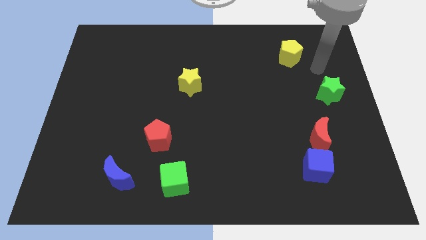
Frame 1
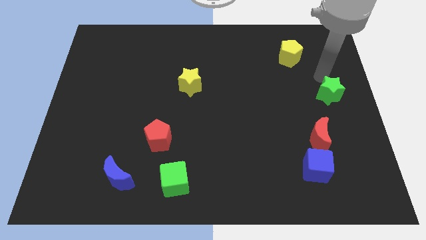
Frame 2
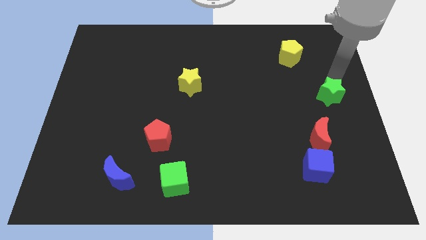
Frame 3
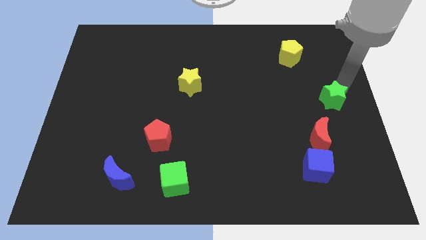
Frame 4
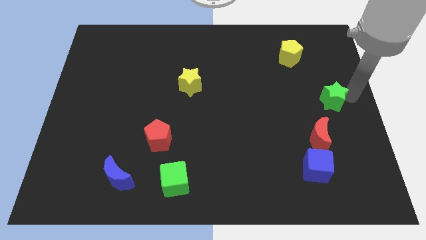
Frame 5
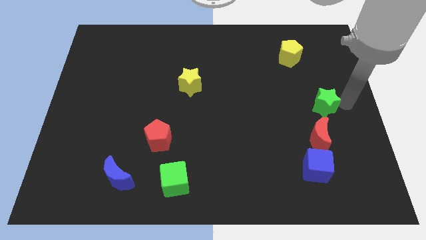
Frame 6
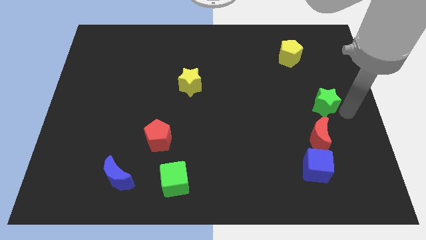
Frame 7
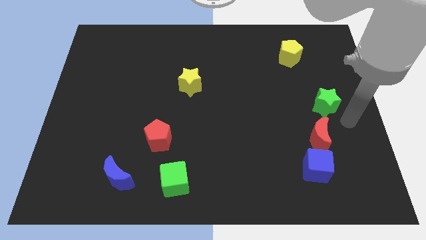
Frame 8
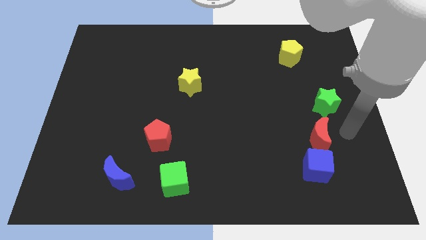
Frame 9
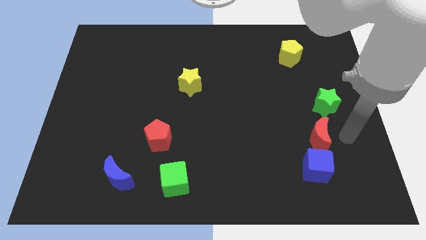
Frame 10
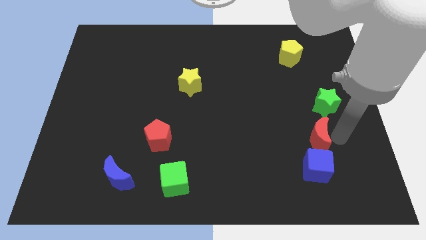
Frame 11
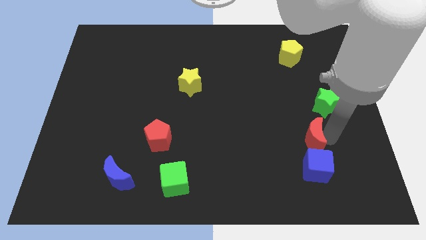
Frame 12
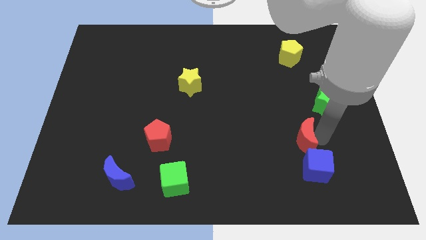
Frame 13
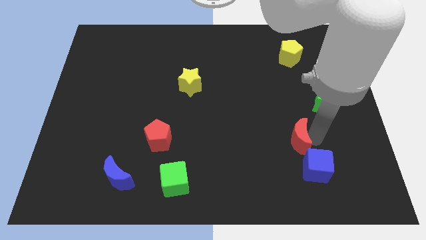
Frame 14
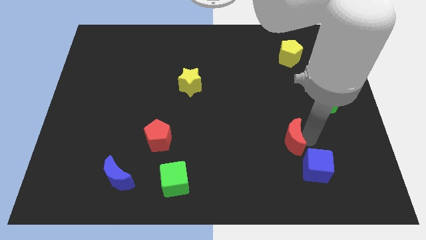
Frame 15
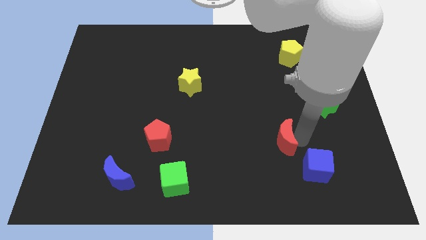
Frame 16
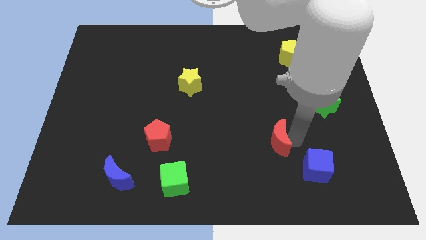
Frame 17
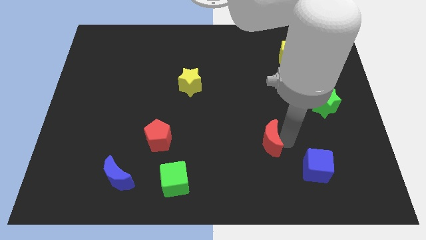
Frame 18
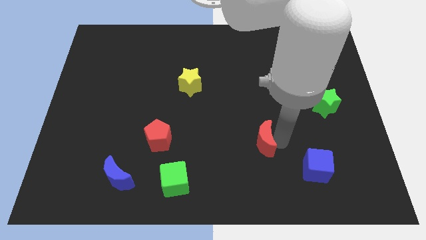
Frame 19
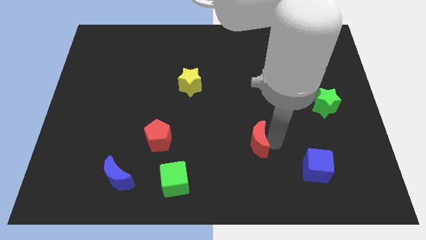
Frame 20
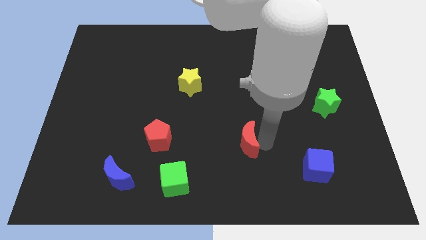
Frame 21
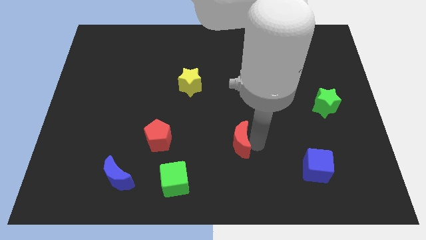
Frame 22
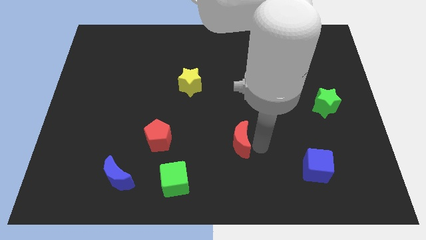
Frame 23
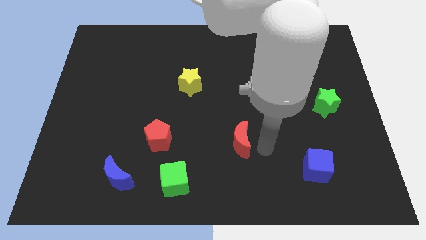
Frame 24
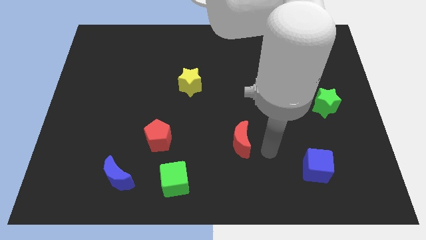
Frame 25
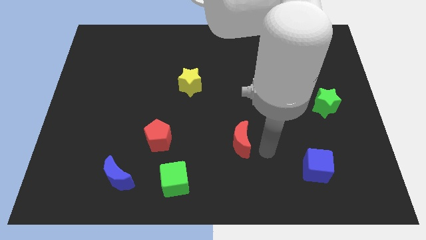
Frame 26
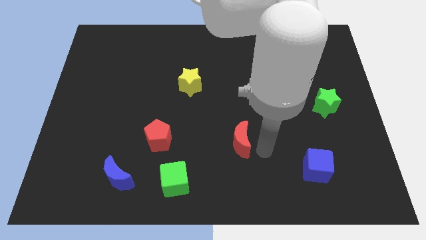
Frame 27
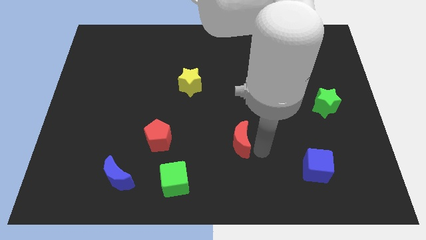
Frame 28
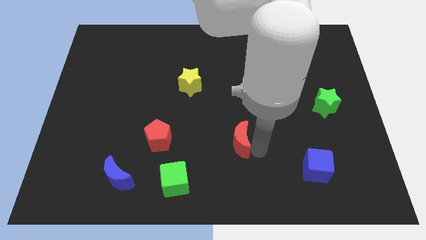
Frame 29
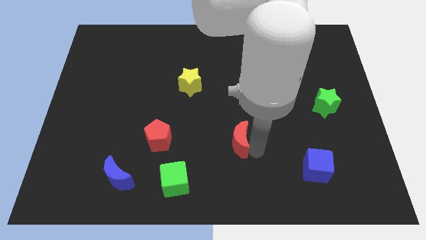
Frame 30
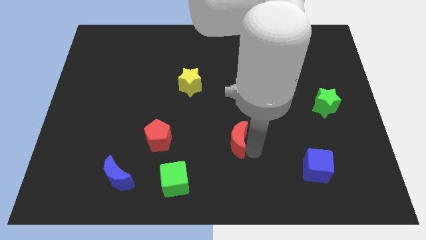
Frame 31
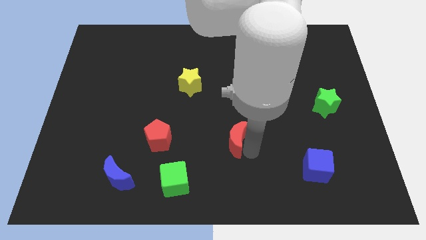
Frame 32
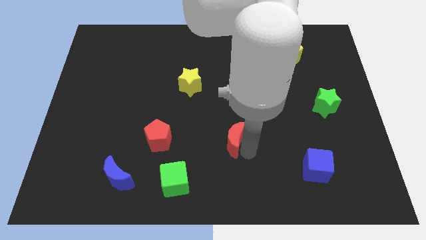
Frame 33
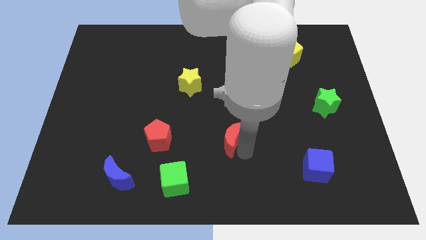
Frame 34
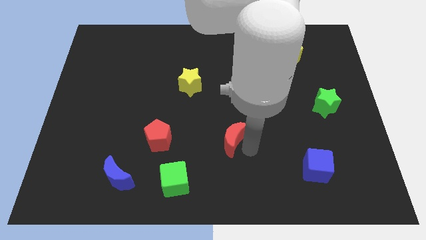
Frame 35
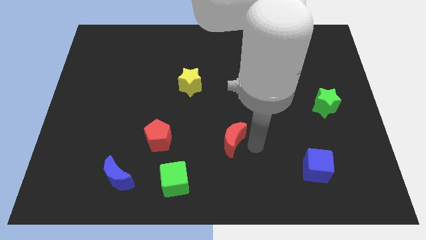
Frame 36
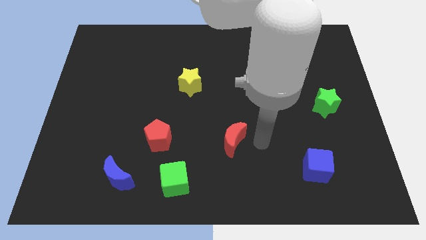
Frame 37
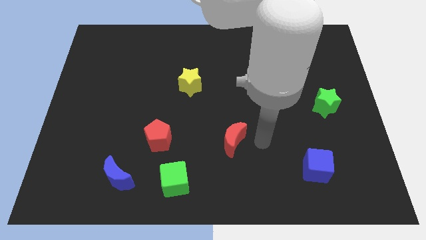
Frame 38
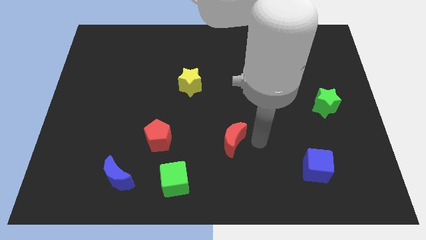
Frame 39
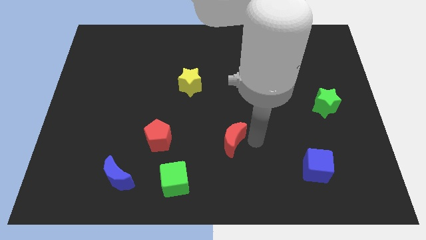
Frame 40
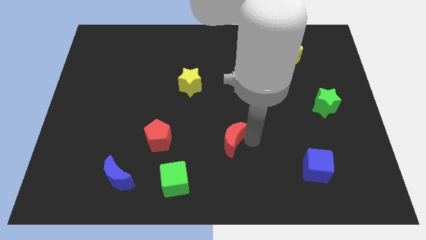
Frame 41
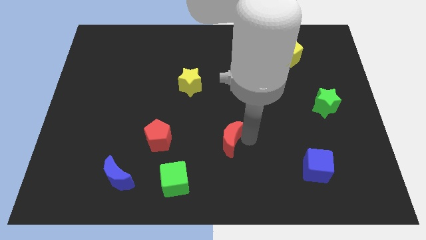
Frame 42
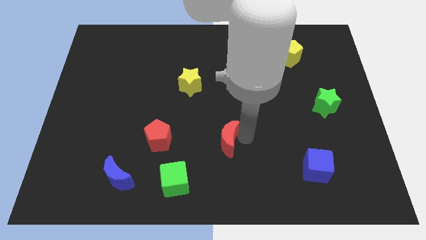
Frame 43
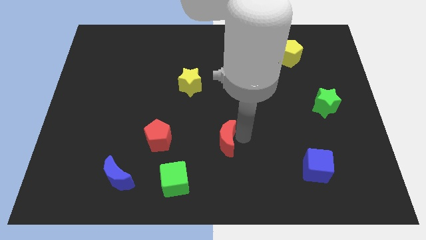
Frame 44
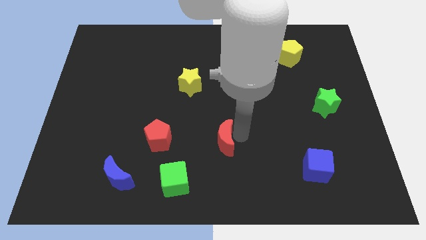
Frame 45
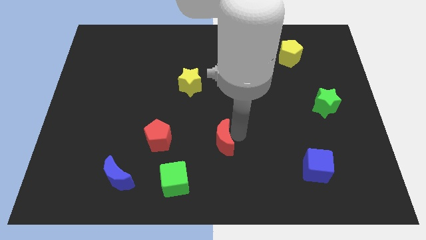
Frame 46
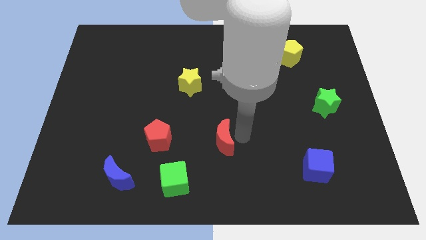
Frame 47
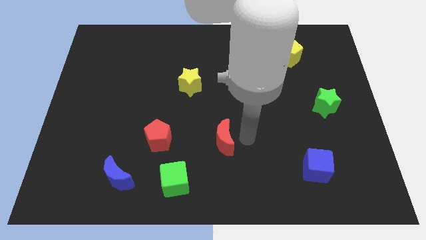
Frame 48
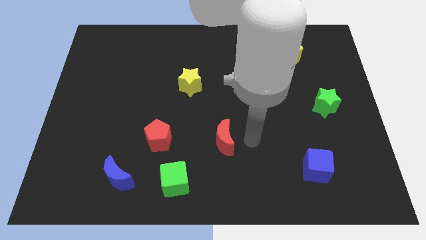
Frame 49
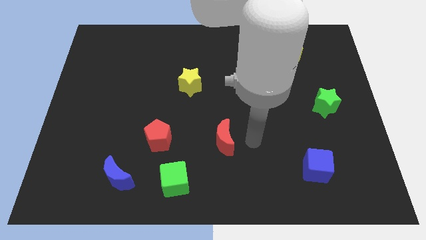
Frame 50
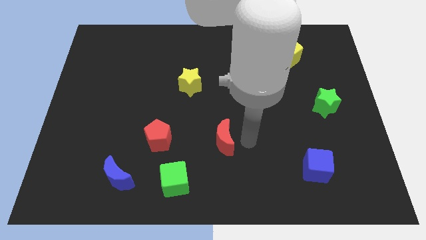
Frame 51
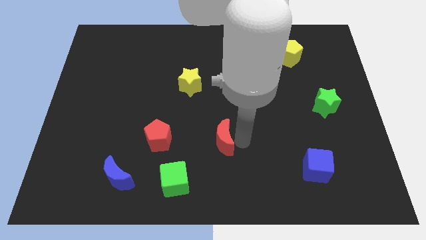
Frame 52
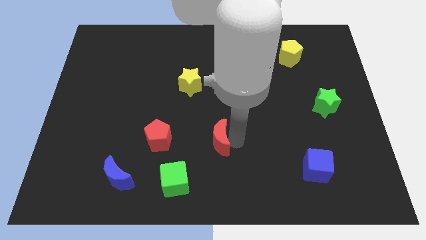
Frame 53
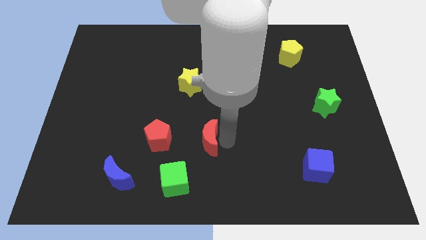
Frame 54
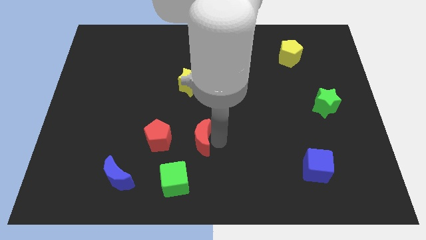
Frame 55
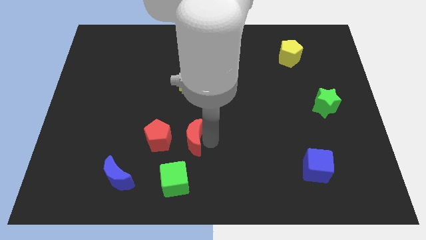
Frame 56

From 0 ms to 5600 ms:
move the red moon above the green cube

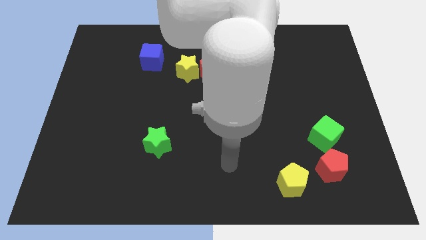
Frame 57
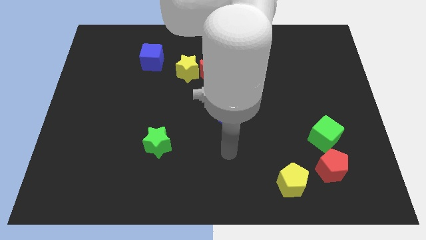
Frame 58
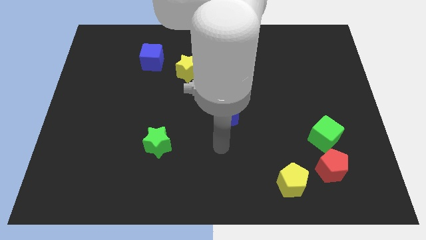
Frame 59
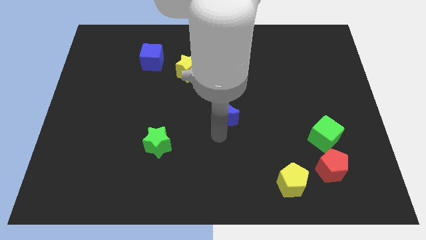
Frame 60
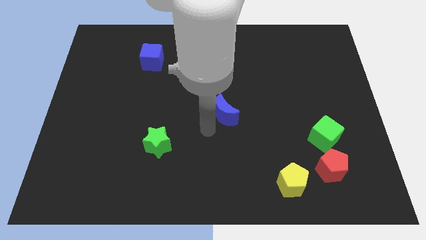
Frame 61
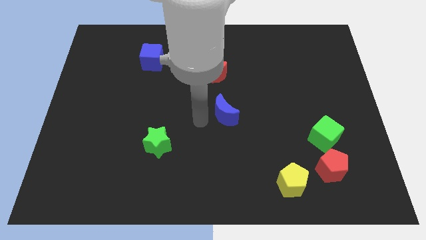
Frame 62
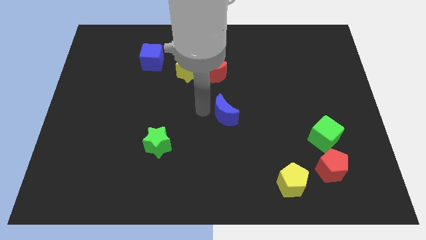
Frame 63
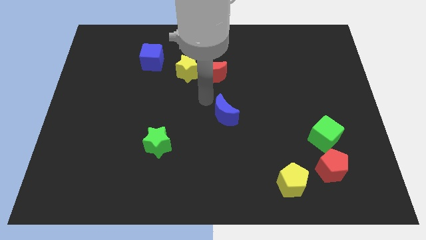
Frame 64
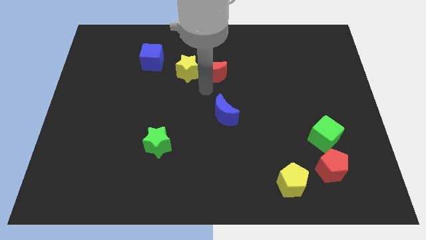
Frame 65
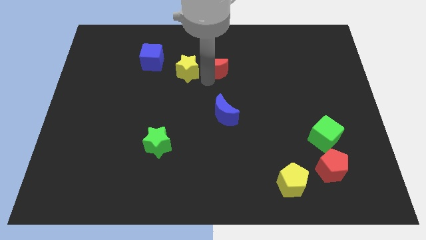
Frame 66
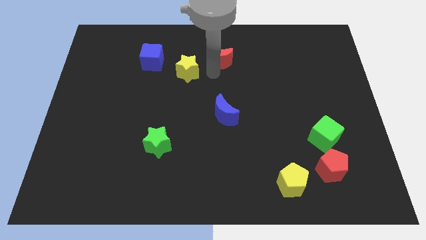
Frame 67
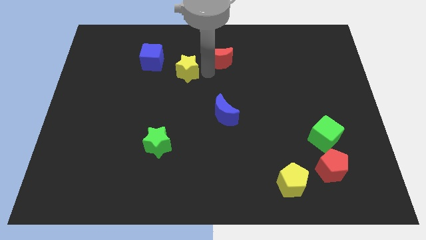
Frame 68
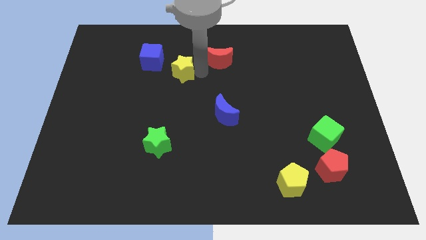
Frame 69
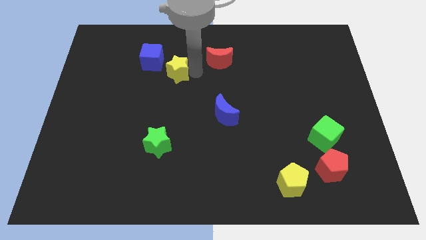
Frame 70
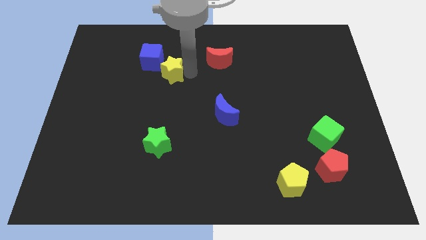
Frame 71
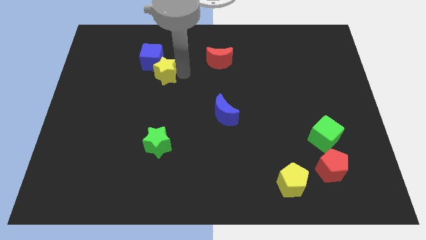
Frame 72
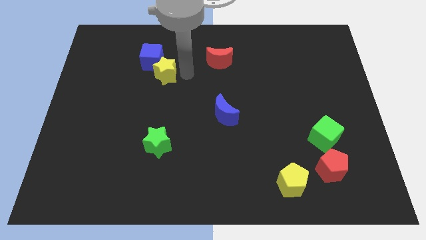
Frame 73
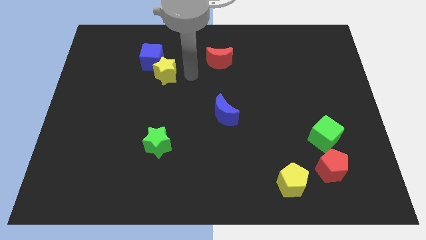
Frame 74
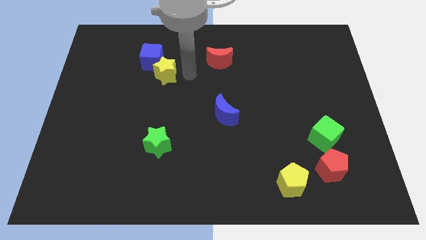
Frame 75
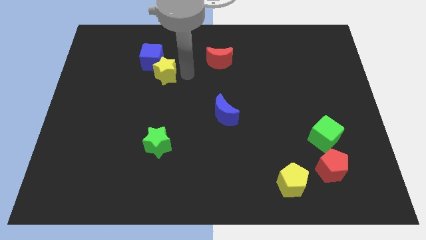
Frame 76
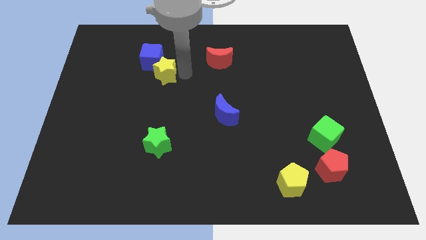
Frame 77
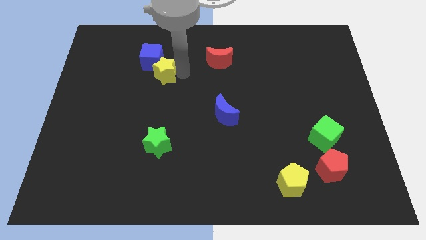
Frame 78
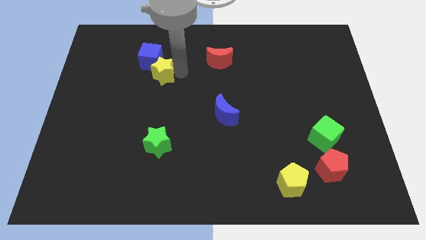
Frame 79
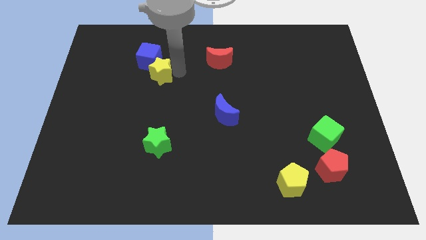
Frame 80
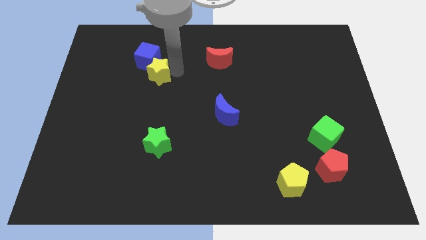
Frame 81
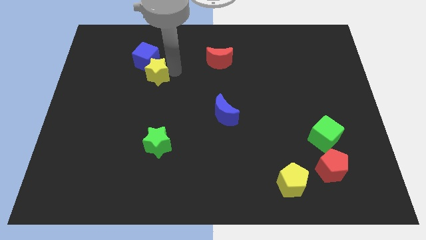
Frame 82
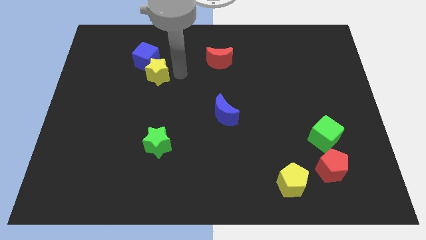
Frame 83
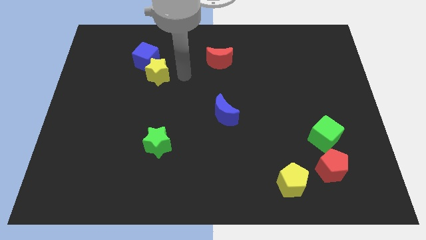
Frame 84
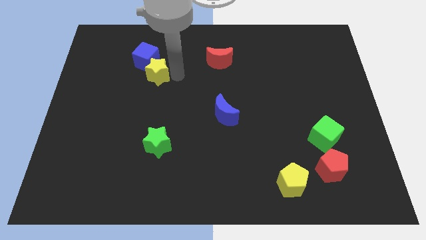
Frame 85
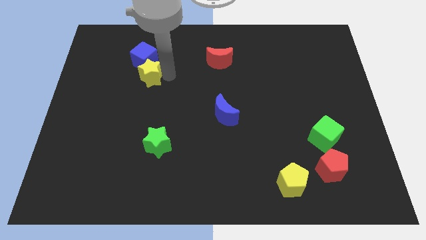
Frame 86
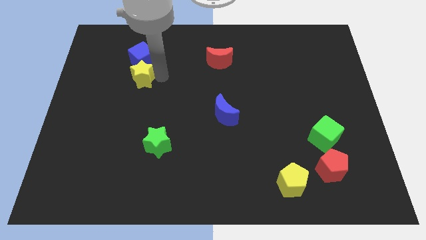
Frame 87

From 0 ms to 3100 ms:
push the yellow star to the bottom left of the blue cube
